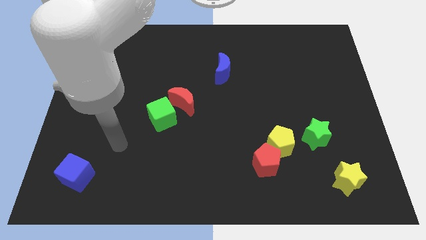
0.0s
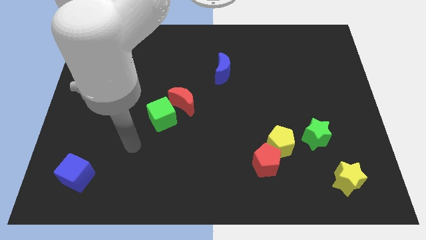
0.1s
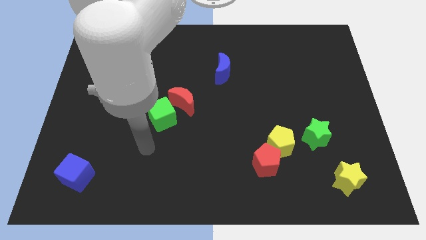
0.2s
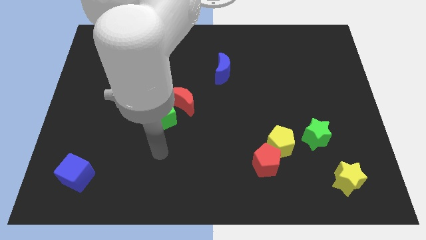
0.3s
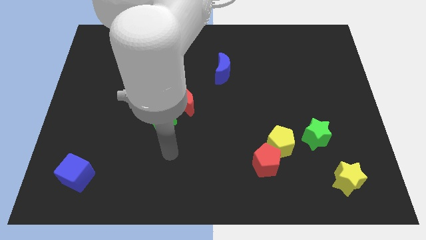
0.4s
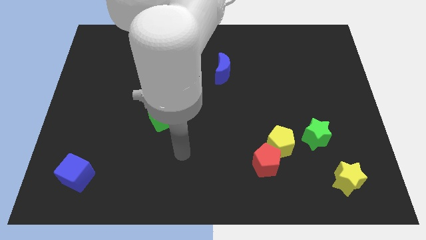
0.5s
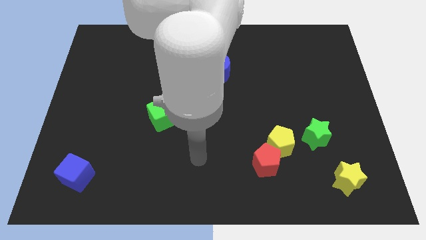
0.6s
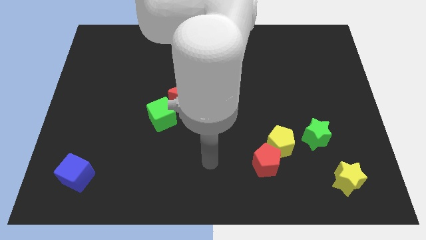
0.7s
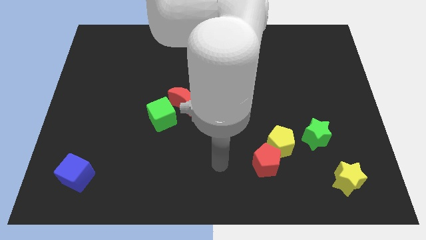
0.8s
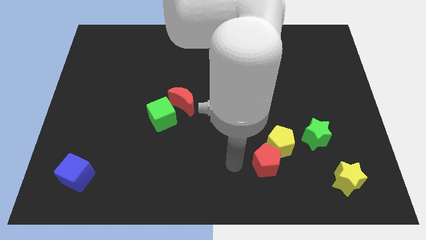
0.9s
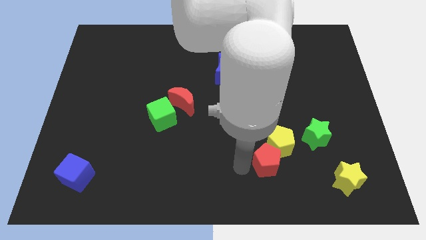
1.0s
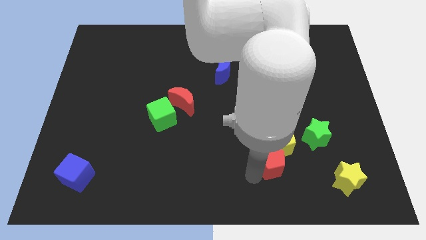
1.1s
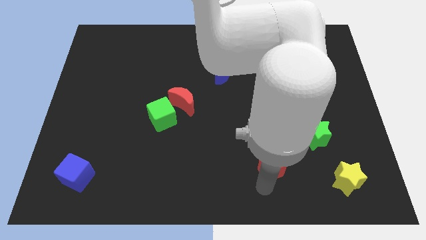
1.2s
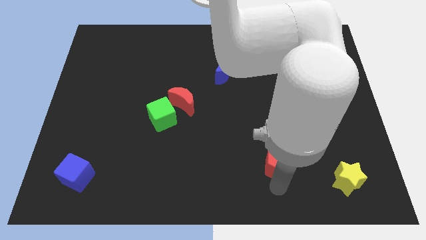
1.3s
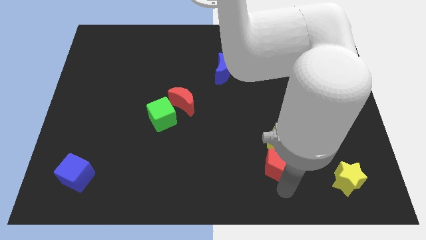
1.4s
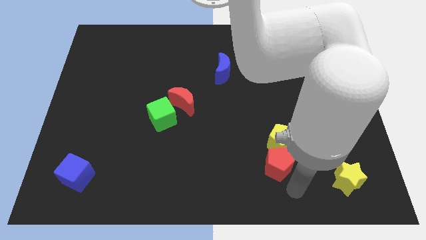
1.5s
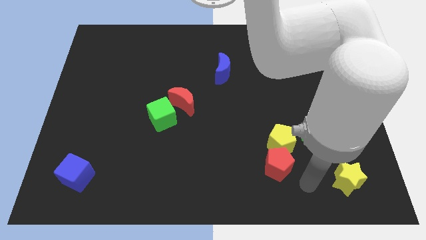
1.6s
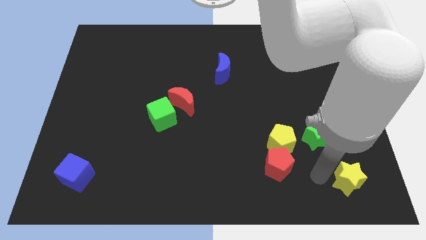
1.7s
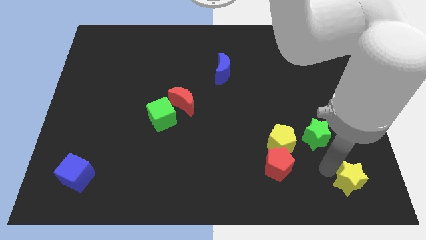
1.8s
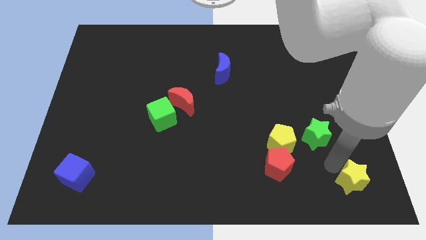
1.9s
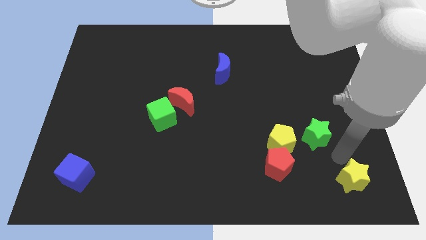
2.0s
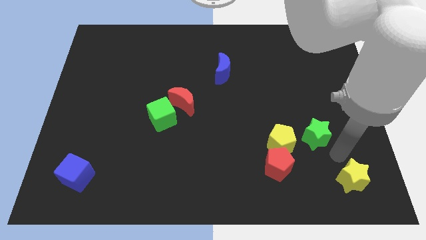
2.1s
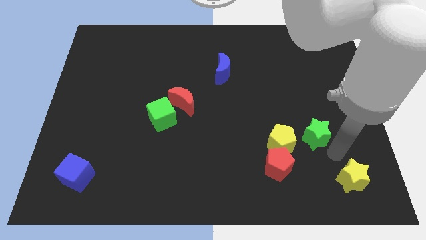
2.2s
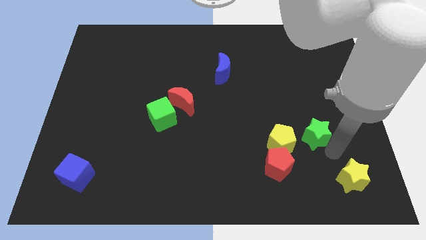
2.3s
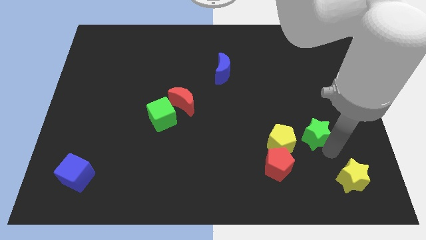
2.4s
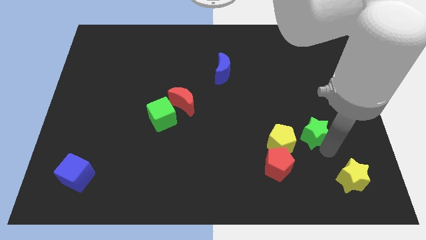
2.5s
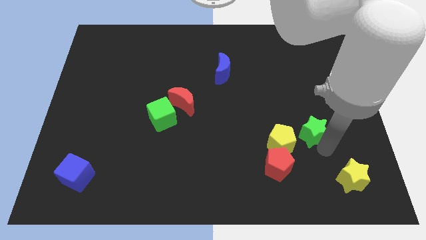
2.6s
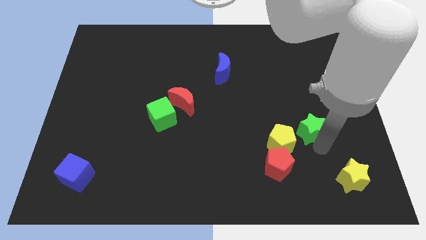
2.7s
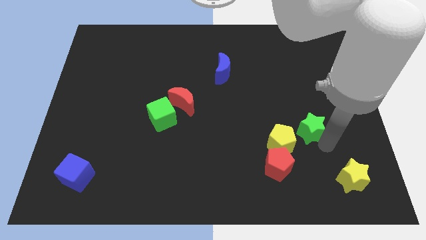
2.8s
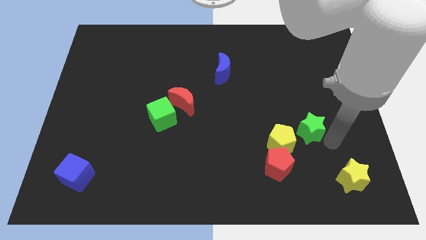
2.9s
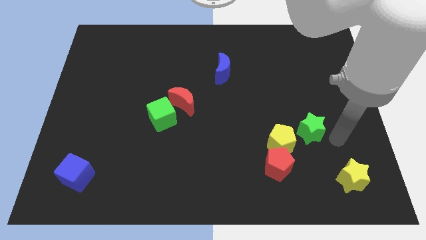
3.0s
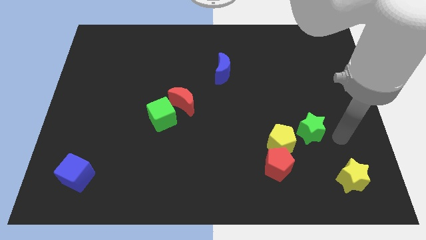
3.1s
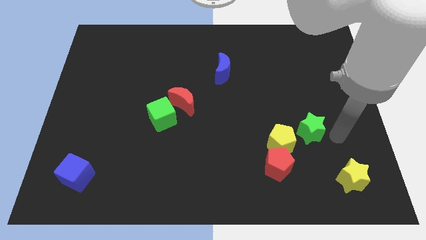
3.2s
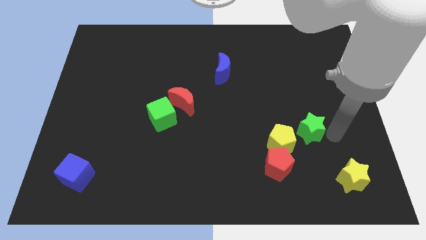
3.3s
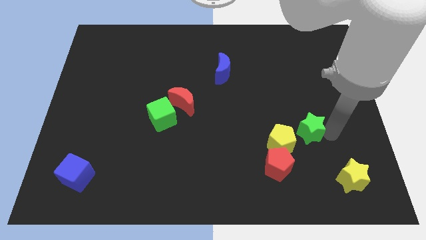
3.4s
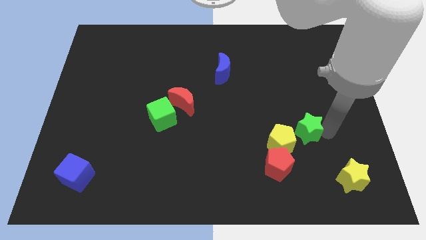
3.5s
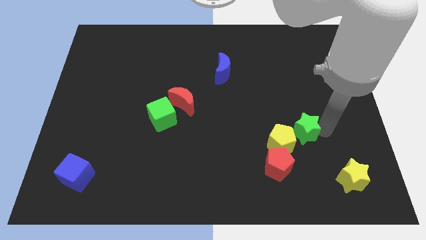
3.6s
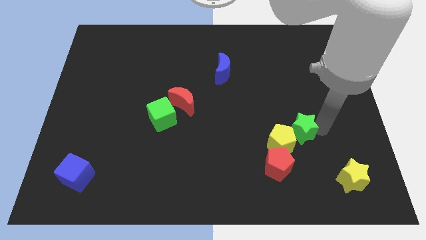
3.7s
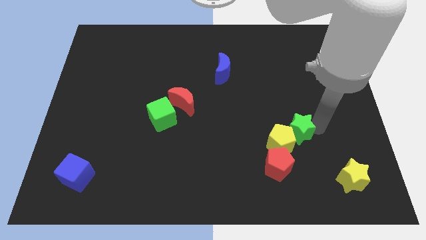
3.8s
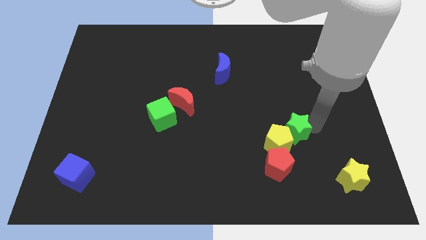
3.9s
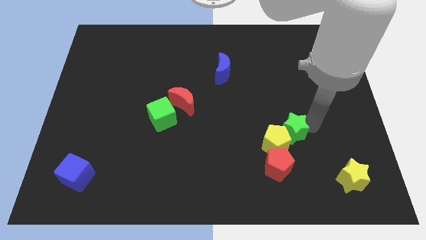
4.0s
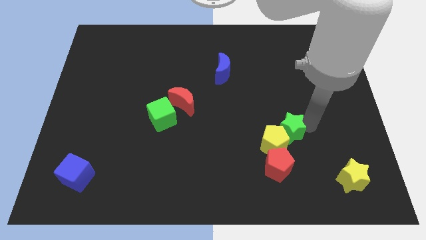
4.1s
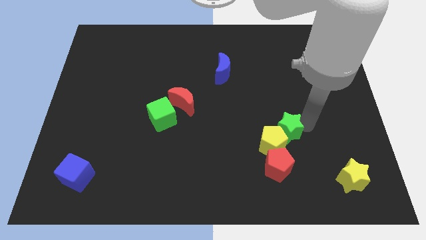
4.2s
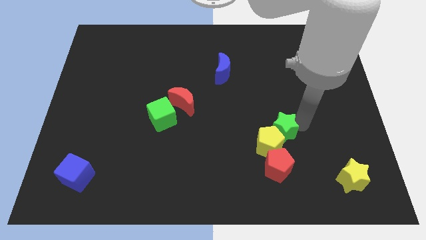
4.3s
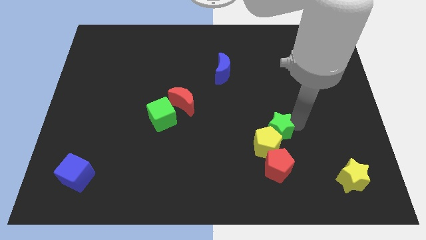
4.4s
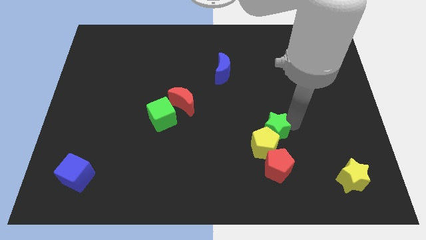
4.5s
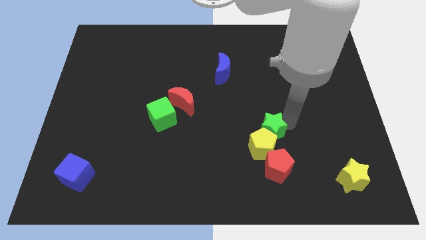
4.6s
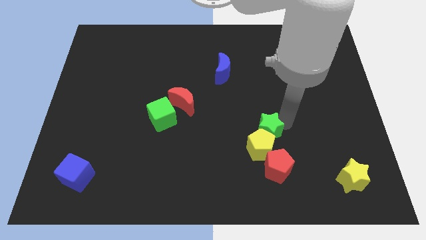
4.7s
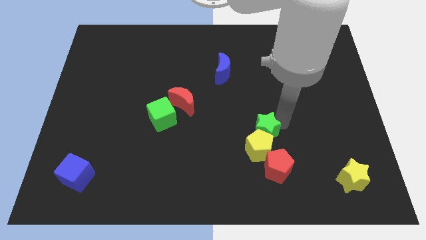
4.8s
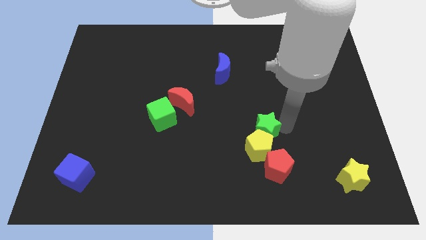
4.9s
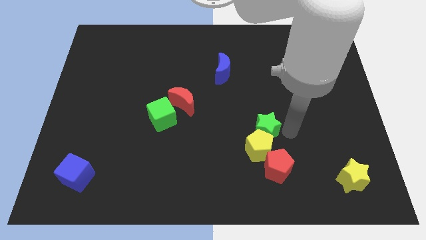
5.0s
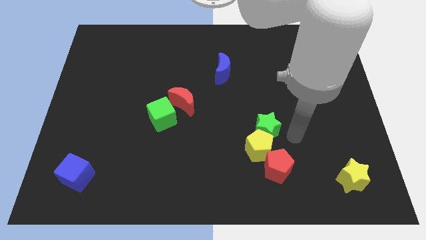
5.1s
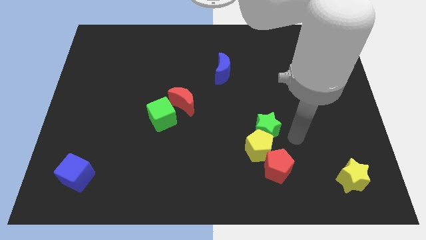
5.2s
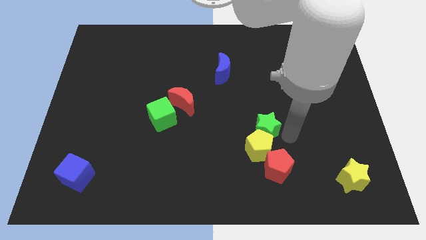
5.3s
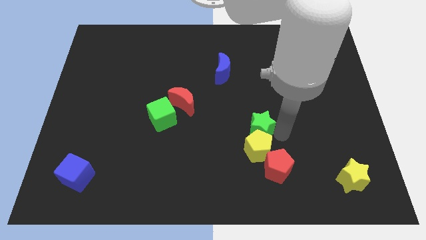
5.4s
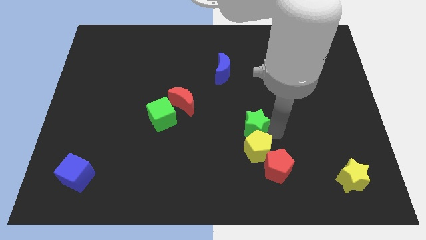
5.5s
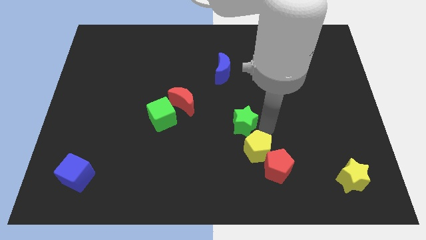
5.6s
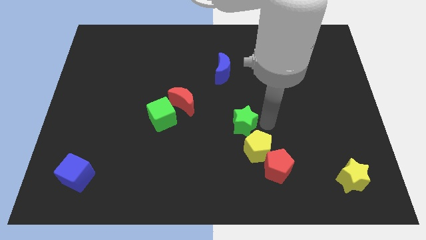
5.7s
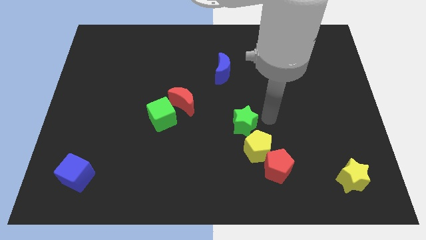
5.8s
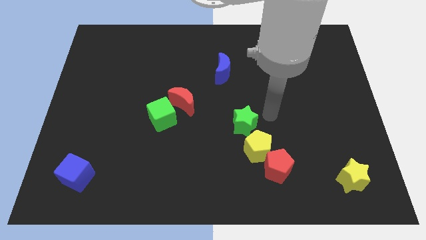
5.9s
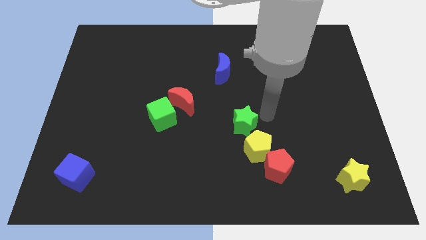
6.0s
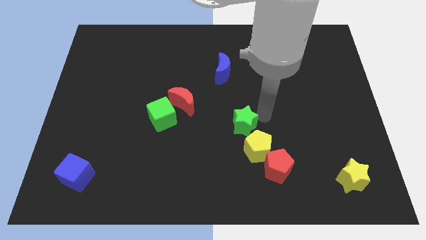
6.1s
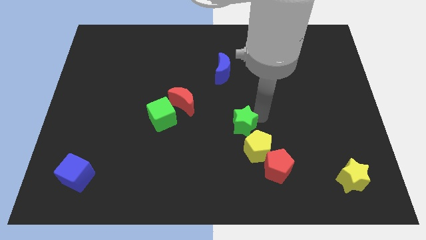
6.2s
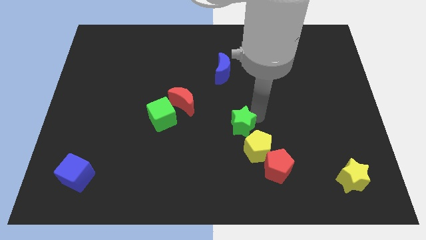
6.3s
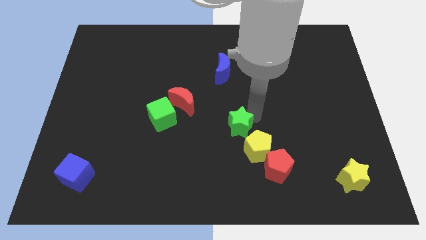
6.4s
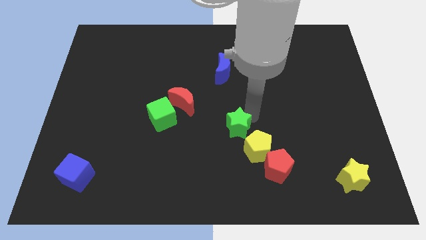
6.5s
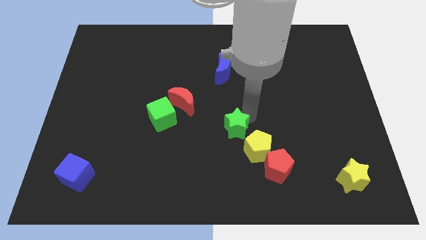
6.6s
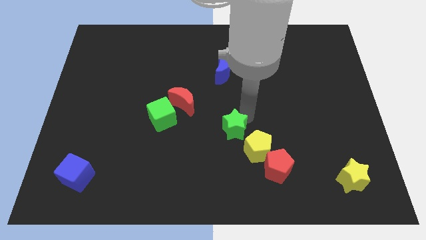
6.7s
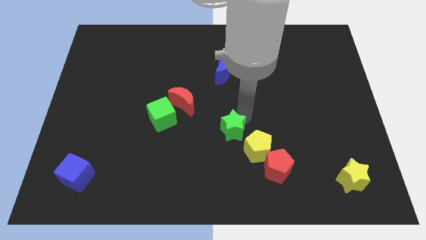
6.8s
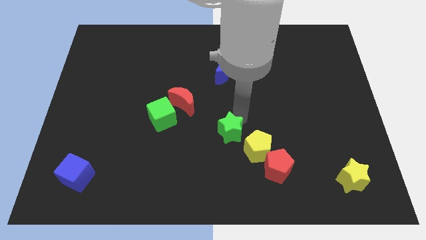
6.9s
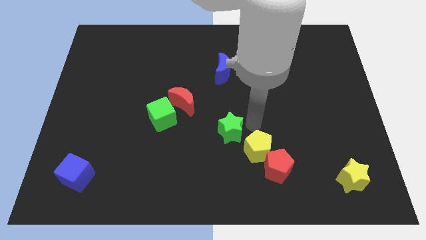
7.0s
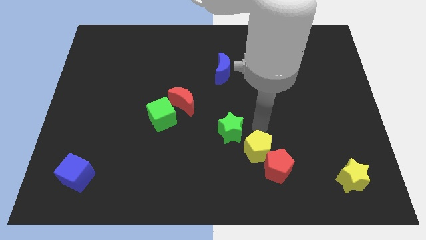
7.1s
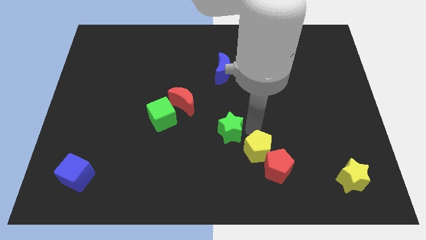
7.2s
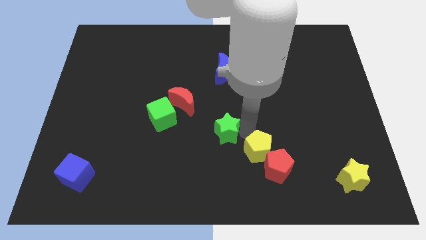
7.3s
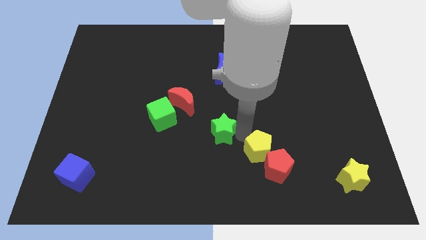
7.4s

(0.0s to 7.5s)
move the green star left

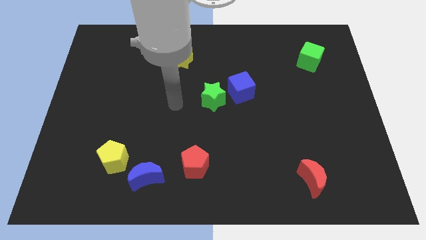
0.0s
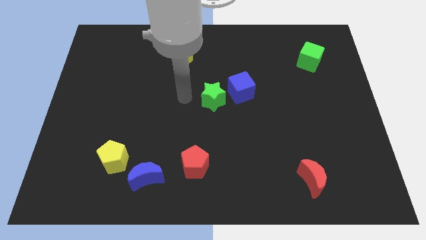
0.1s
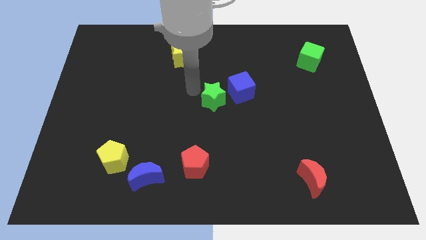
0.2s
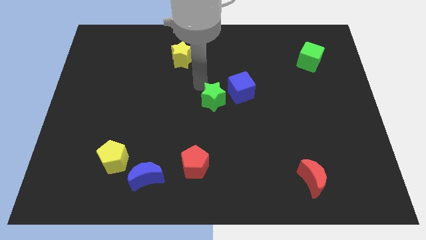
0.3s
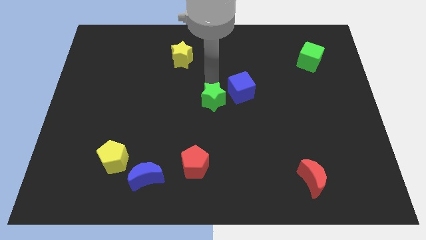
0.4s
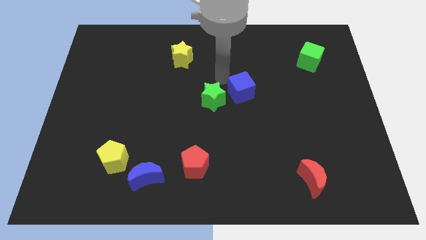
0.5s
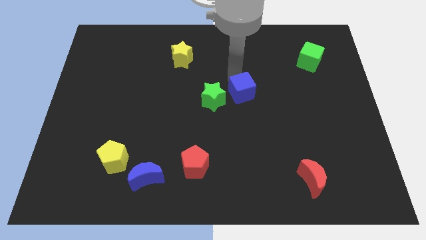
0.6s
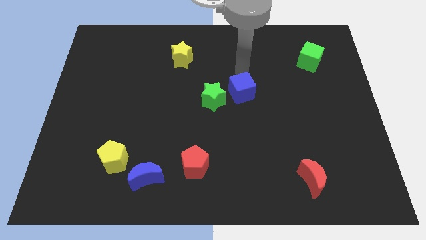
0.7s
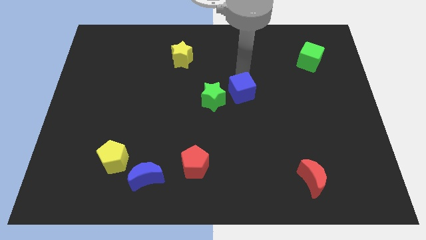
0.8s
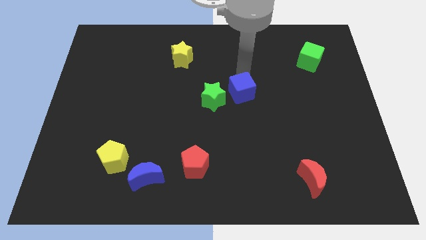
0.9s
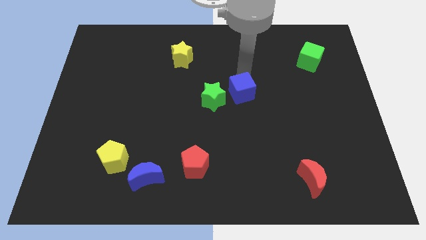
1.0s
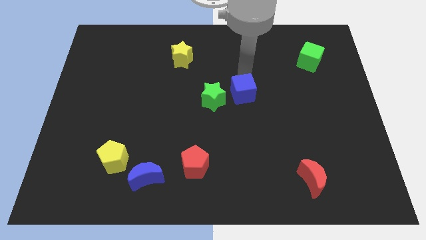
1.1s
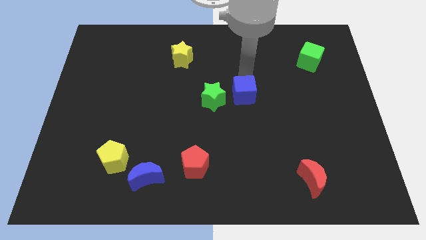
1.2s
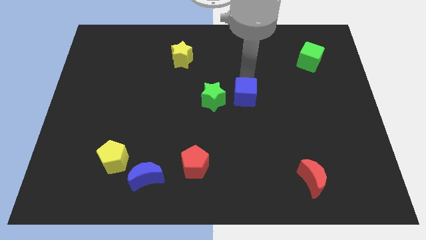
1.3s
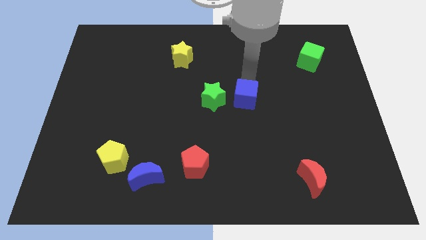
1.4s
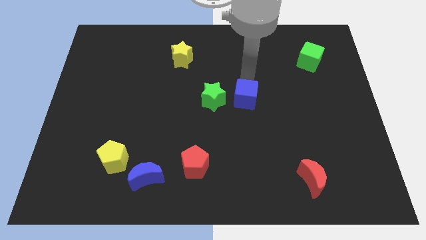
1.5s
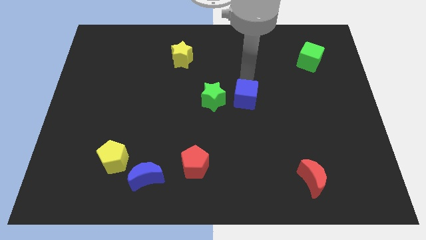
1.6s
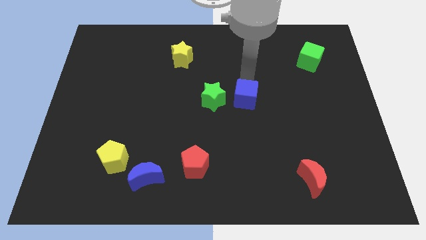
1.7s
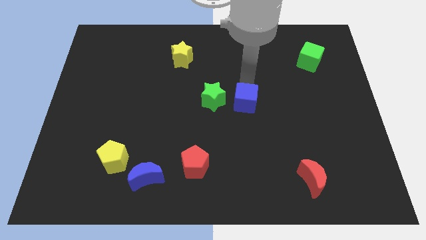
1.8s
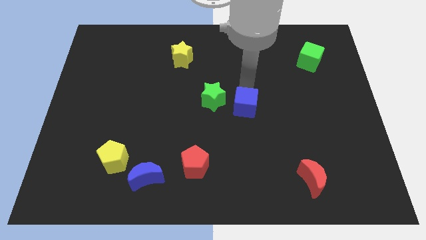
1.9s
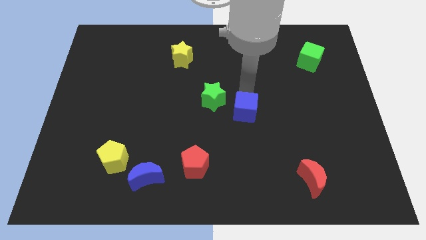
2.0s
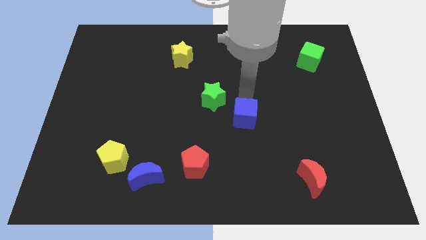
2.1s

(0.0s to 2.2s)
push the blue cube downwards a bit
